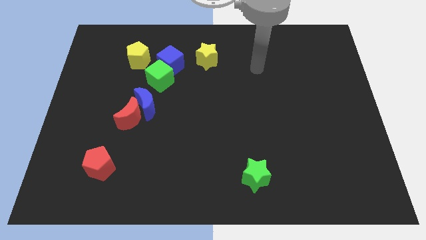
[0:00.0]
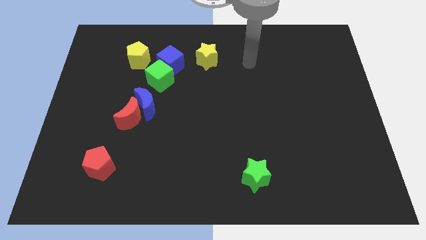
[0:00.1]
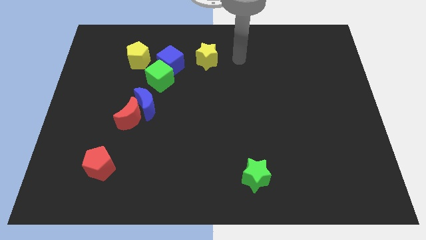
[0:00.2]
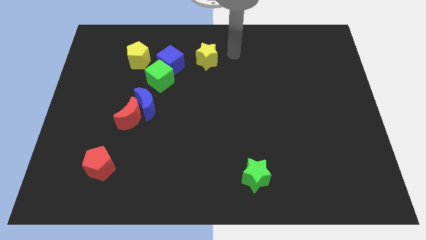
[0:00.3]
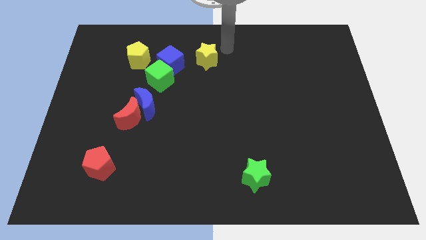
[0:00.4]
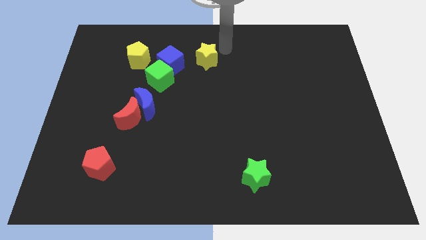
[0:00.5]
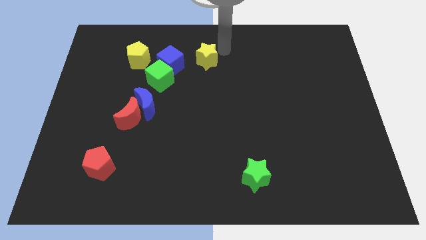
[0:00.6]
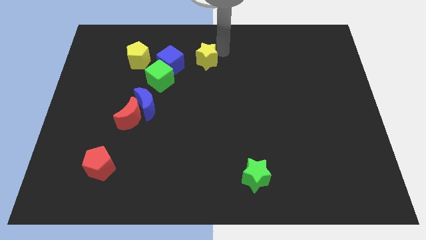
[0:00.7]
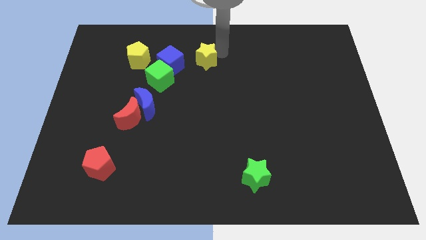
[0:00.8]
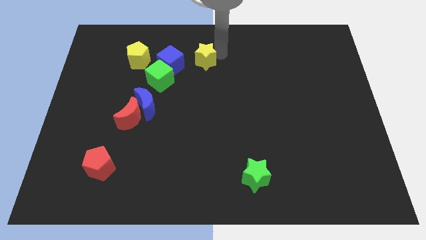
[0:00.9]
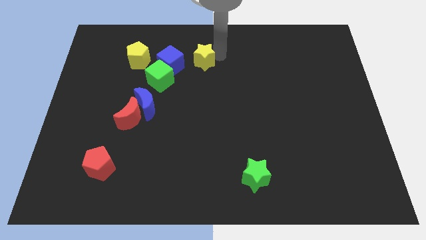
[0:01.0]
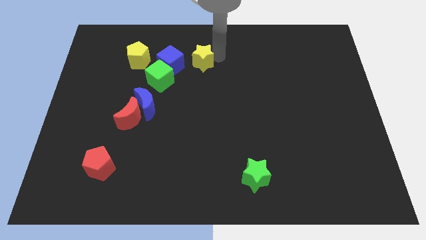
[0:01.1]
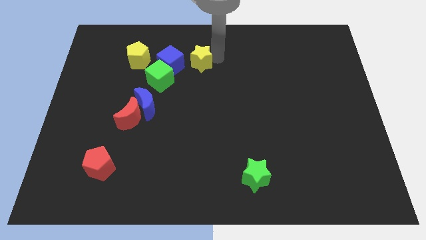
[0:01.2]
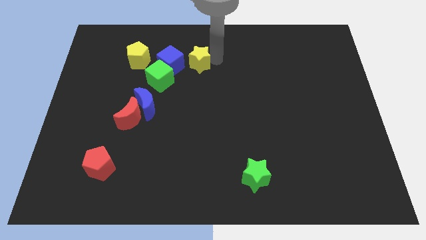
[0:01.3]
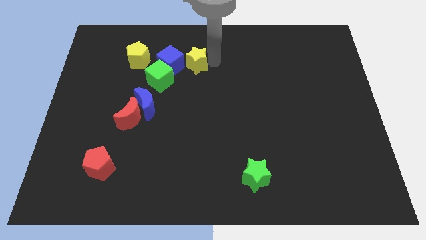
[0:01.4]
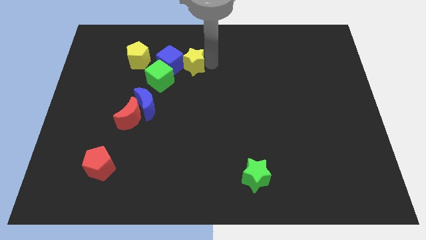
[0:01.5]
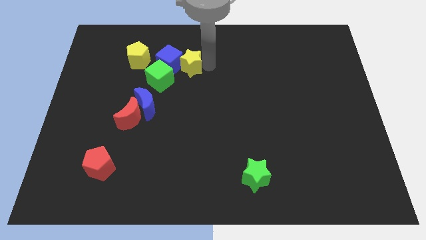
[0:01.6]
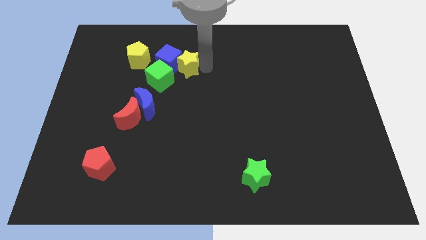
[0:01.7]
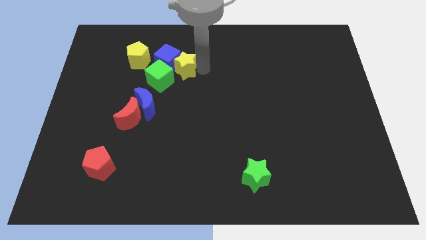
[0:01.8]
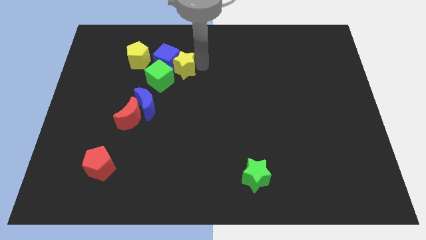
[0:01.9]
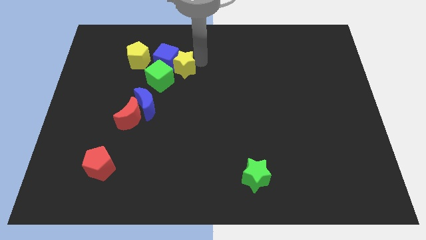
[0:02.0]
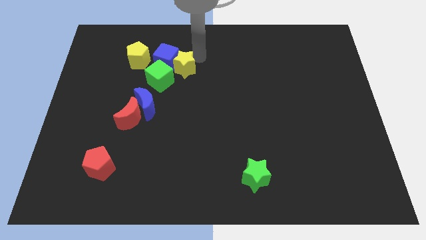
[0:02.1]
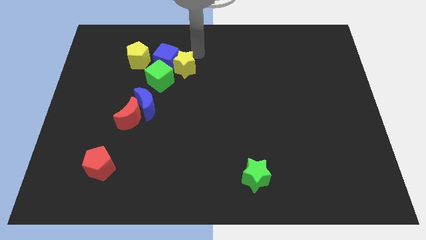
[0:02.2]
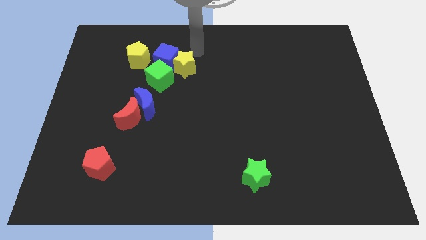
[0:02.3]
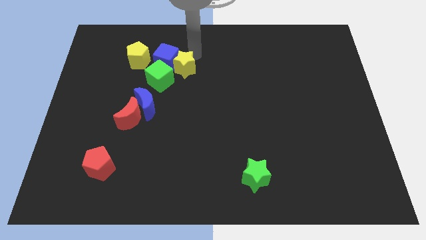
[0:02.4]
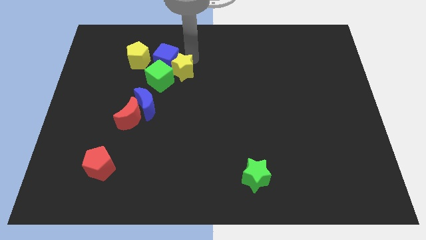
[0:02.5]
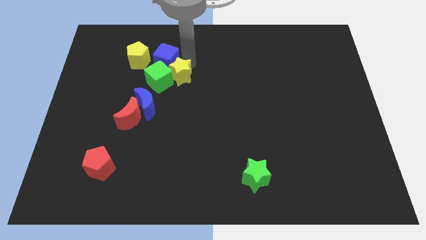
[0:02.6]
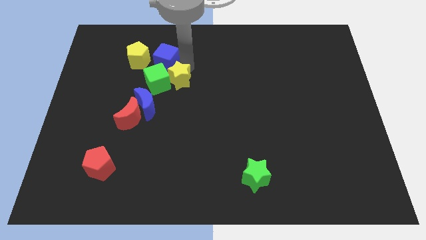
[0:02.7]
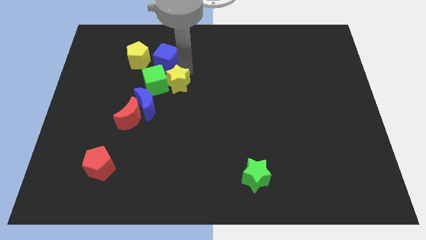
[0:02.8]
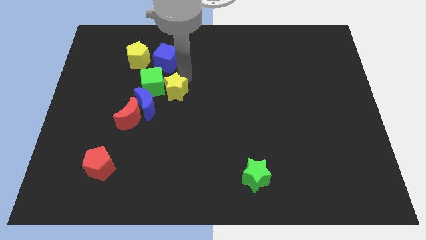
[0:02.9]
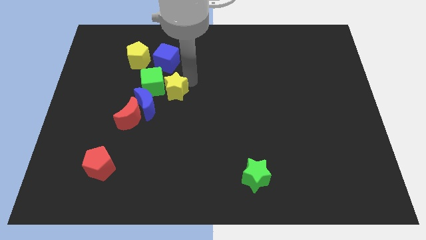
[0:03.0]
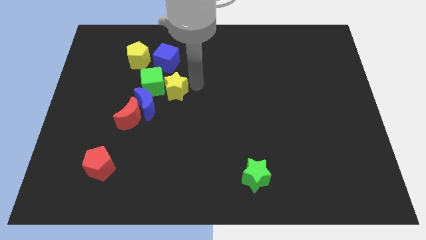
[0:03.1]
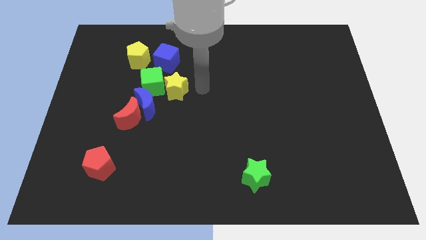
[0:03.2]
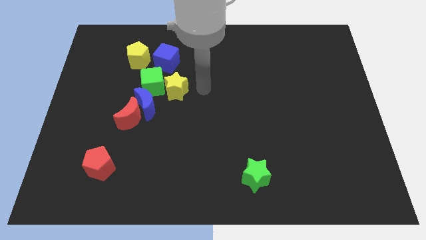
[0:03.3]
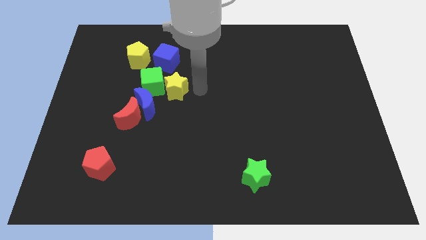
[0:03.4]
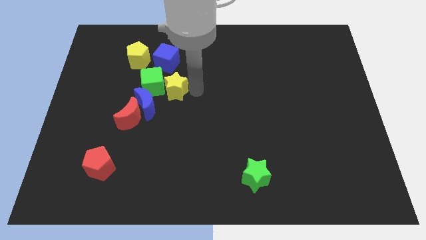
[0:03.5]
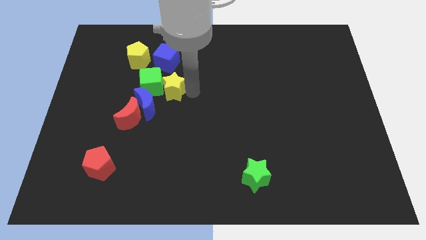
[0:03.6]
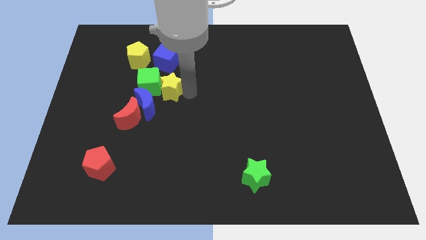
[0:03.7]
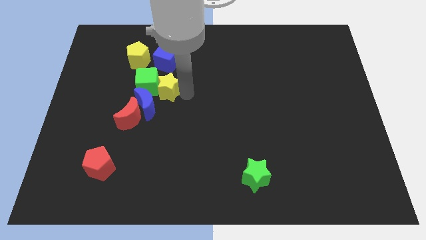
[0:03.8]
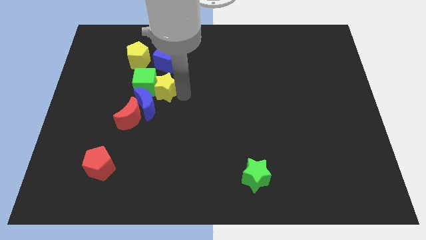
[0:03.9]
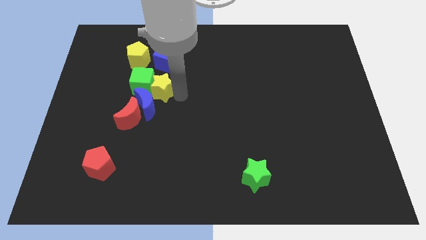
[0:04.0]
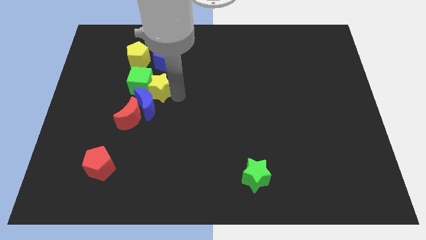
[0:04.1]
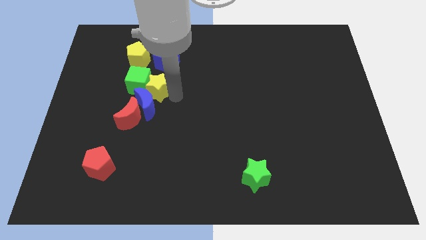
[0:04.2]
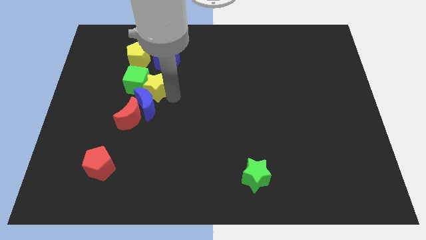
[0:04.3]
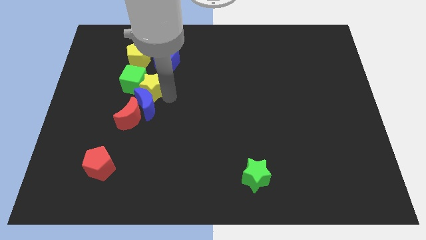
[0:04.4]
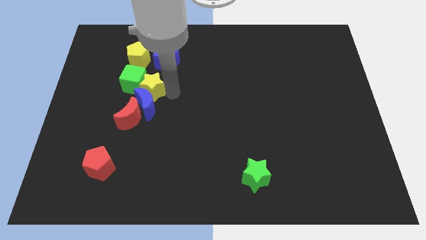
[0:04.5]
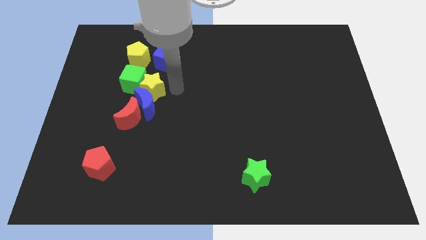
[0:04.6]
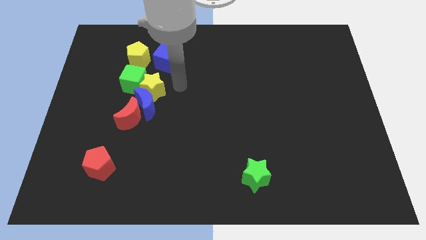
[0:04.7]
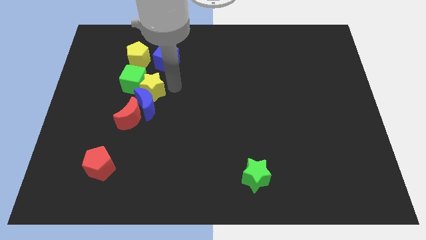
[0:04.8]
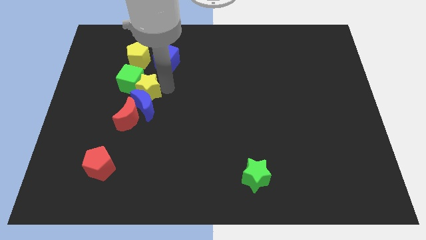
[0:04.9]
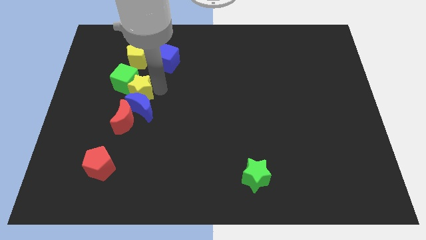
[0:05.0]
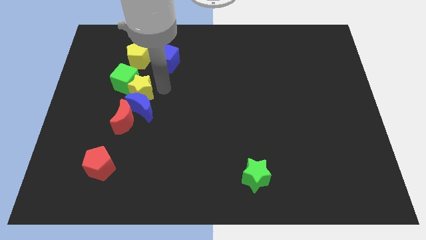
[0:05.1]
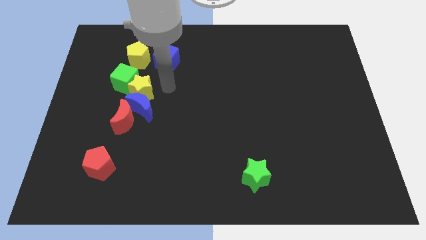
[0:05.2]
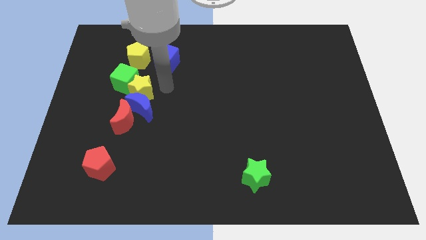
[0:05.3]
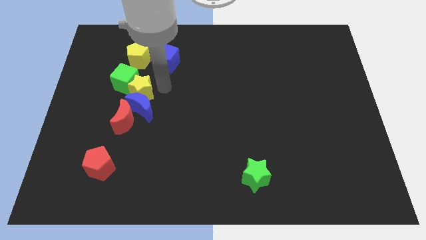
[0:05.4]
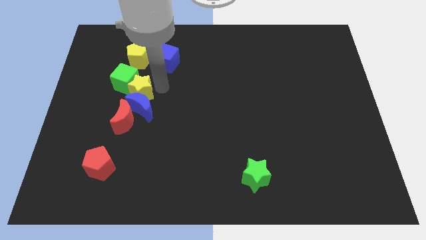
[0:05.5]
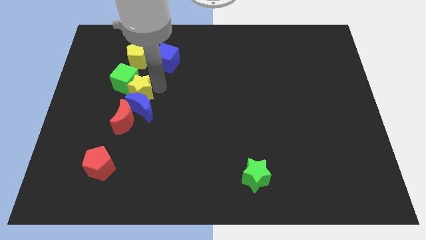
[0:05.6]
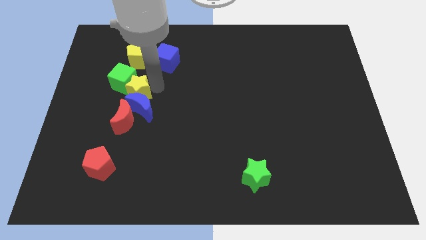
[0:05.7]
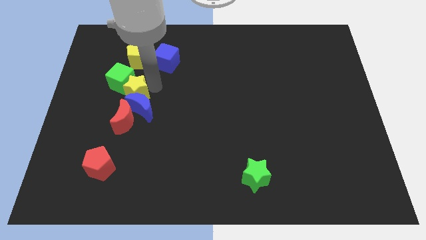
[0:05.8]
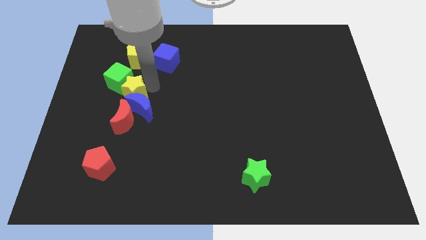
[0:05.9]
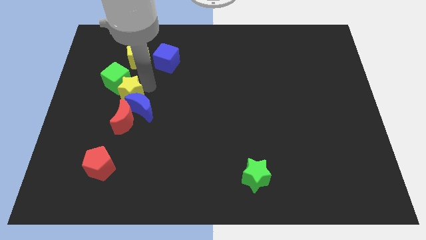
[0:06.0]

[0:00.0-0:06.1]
push the yellow star to the left of the blue moon

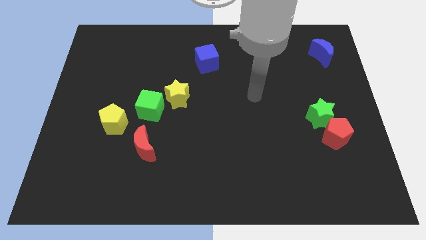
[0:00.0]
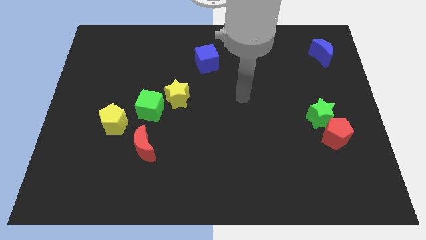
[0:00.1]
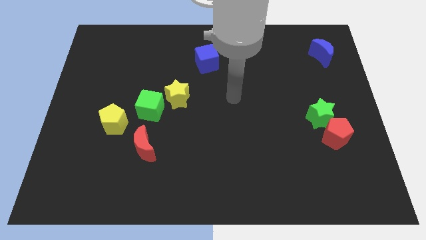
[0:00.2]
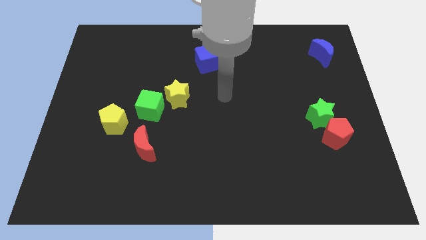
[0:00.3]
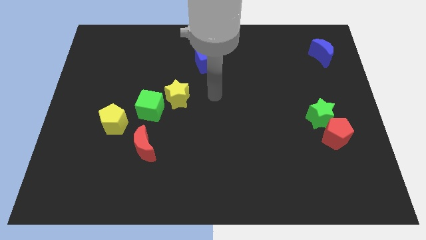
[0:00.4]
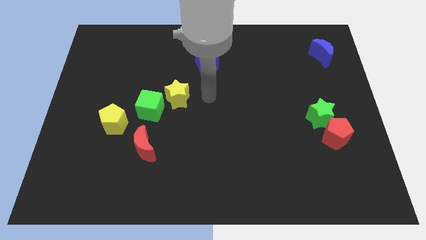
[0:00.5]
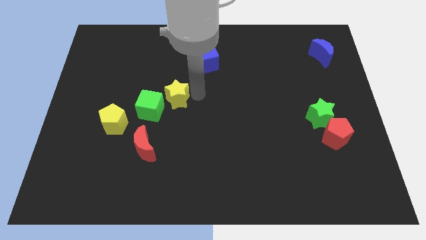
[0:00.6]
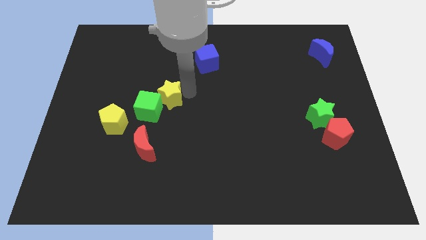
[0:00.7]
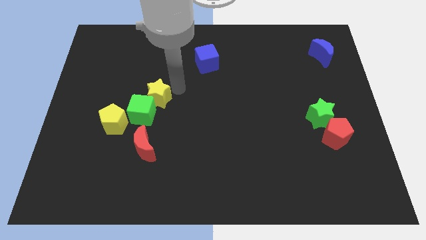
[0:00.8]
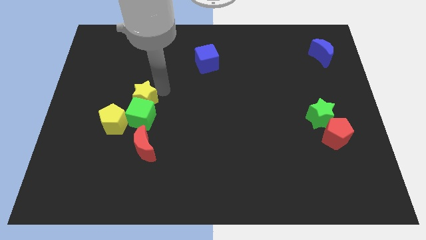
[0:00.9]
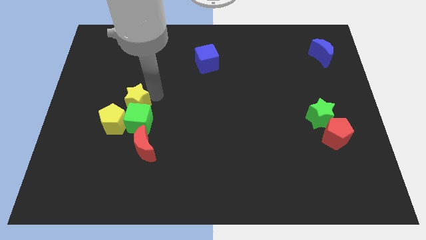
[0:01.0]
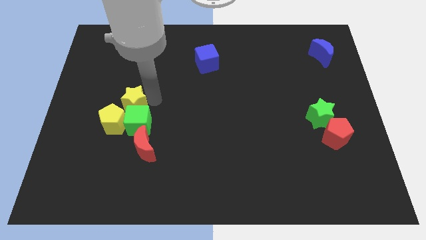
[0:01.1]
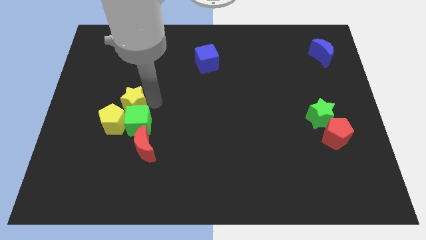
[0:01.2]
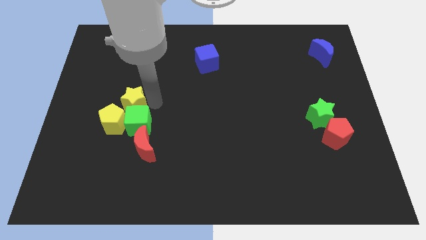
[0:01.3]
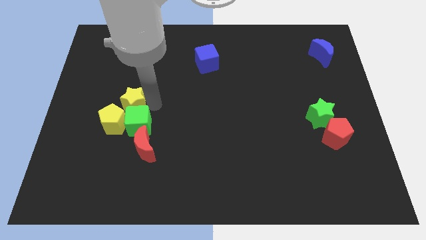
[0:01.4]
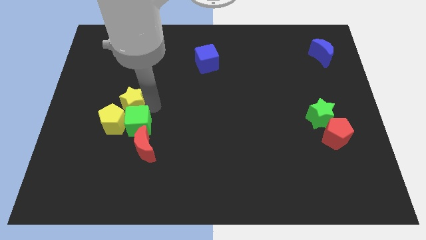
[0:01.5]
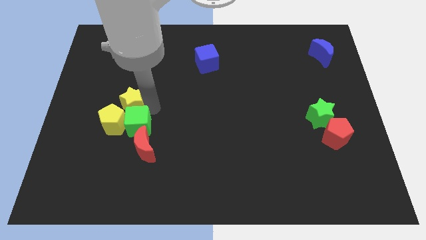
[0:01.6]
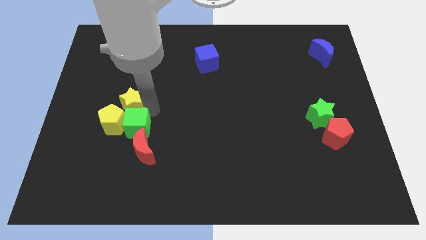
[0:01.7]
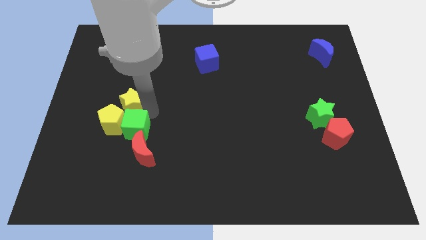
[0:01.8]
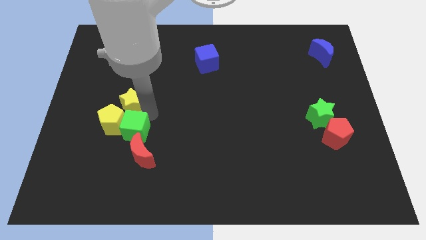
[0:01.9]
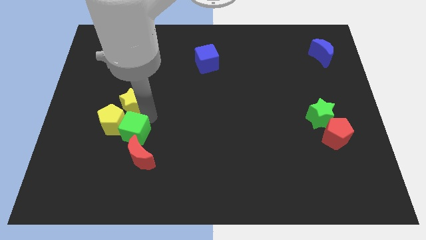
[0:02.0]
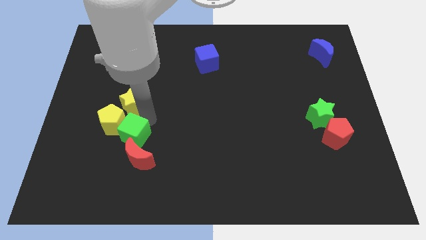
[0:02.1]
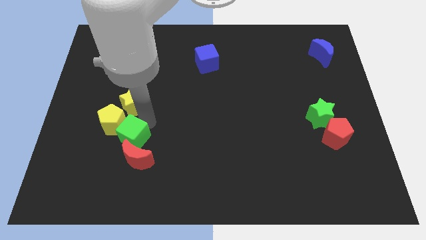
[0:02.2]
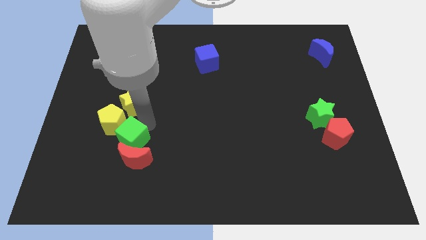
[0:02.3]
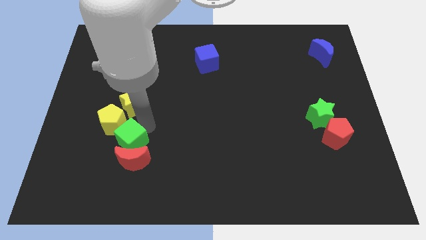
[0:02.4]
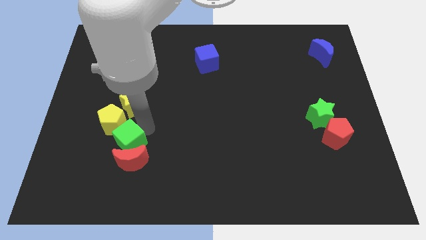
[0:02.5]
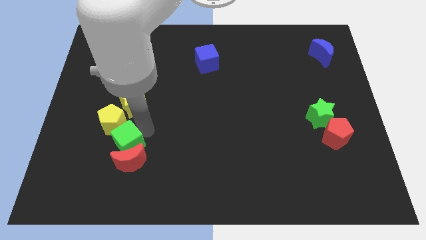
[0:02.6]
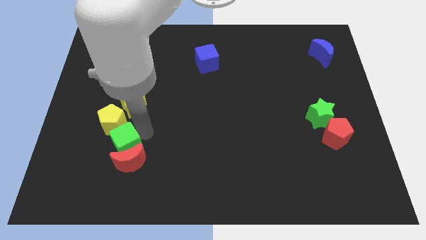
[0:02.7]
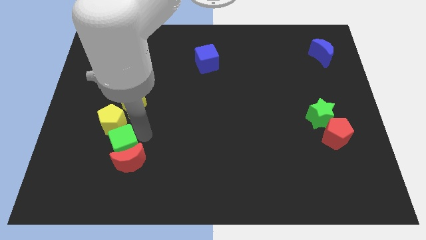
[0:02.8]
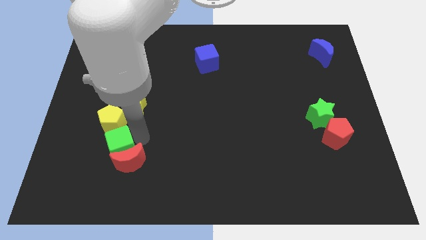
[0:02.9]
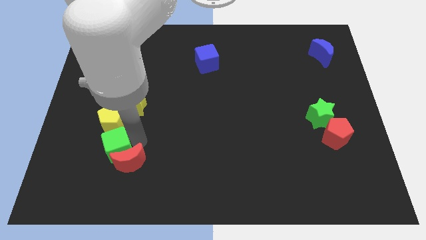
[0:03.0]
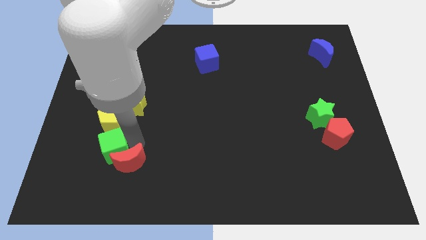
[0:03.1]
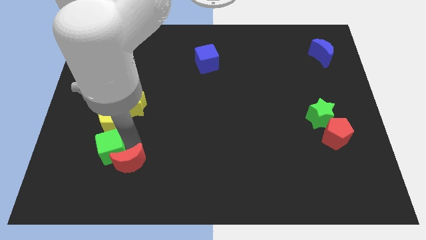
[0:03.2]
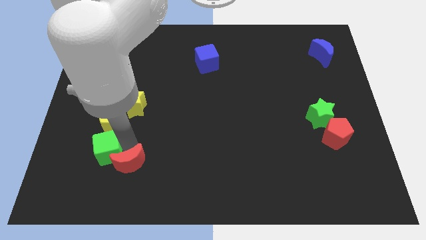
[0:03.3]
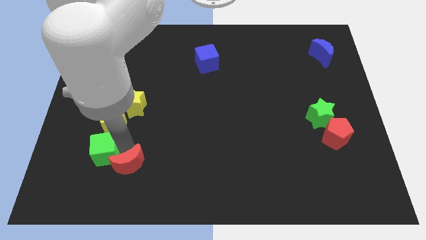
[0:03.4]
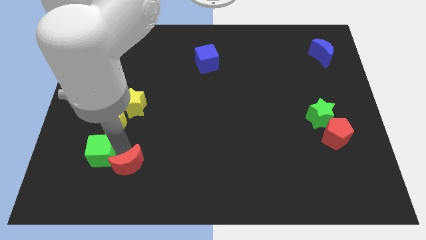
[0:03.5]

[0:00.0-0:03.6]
slide the green cube to the bottom left side of the yellow pentagon
